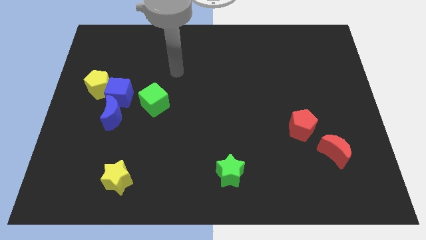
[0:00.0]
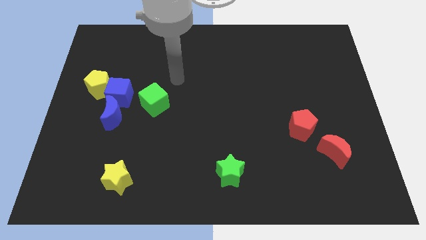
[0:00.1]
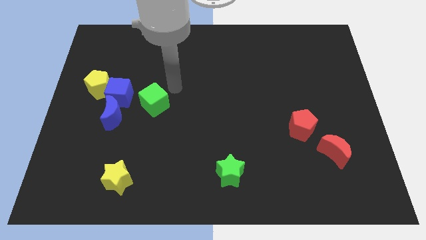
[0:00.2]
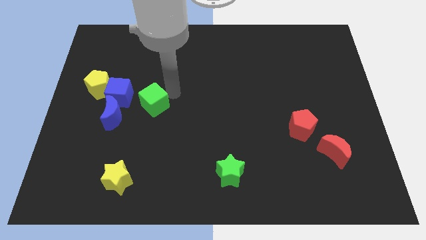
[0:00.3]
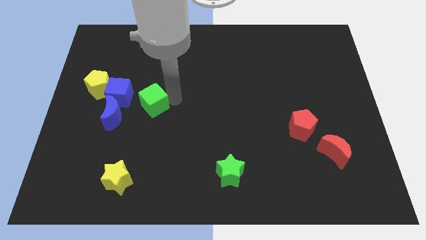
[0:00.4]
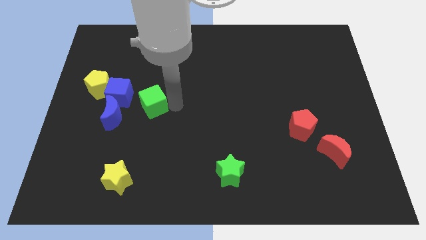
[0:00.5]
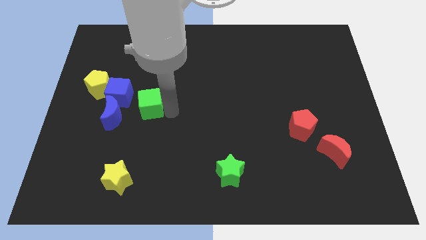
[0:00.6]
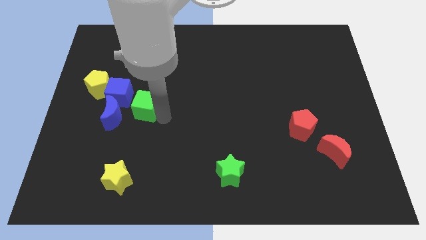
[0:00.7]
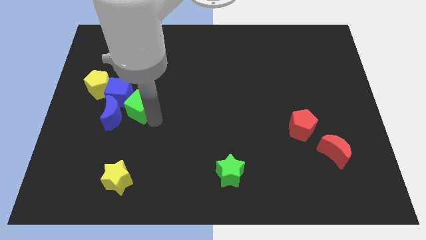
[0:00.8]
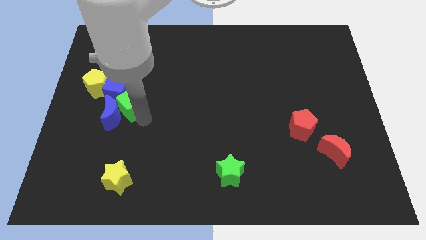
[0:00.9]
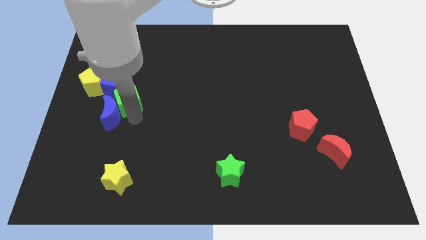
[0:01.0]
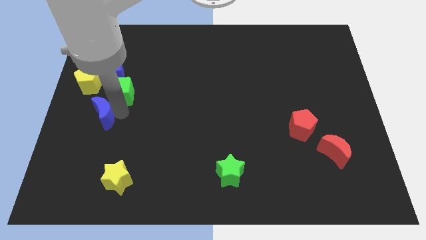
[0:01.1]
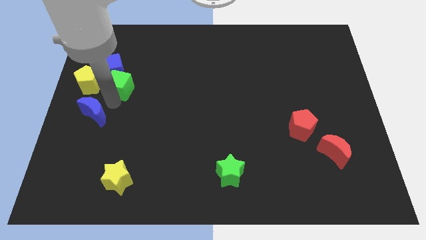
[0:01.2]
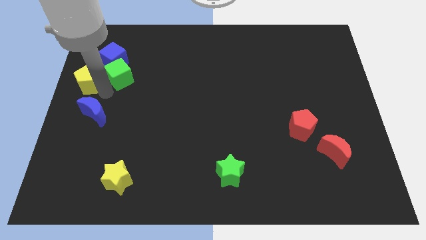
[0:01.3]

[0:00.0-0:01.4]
move the blue cube away from the clump

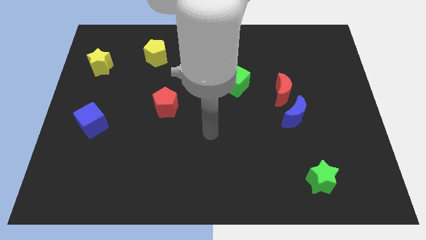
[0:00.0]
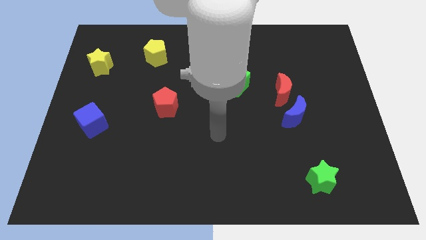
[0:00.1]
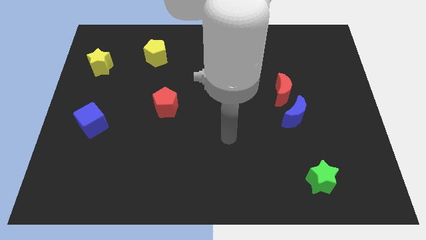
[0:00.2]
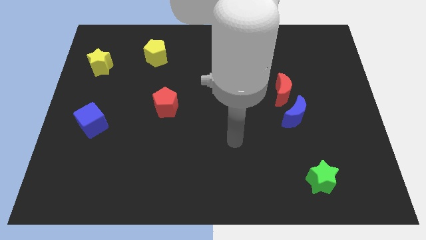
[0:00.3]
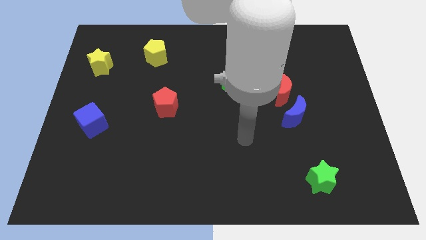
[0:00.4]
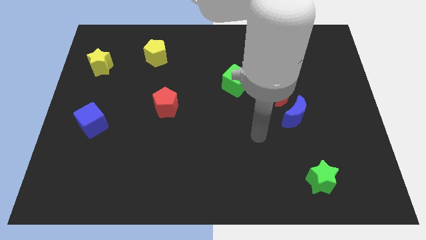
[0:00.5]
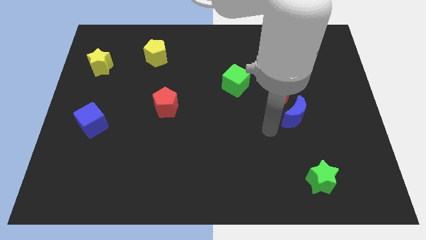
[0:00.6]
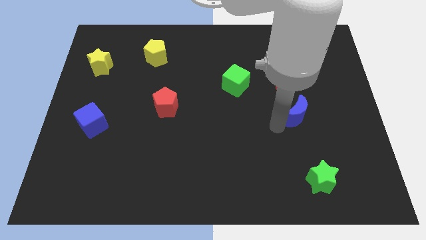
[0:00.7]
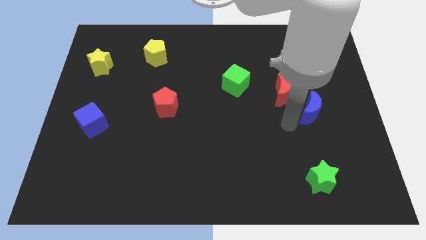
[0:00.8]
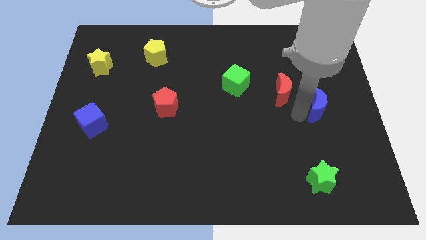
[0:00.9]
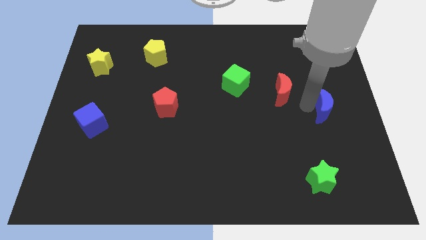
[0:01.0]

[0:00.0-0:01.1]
separate the red moon from the blue moon

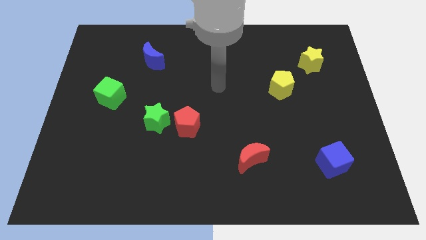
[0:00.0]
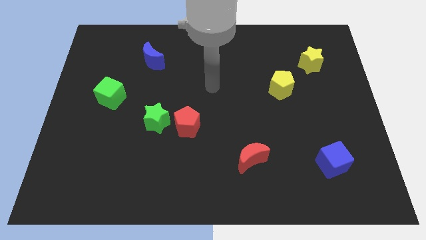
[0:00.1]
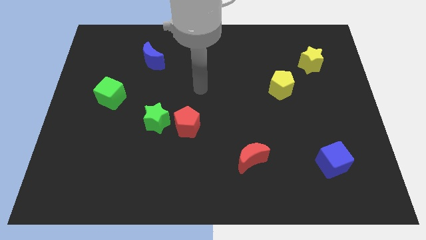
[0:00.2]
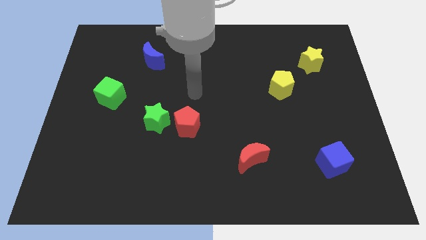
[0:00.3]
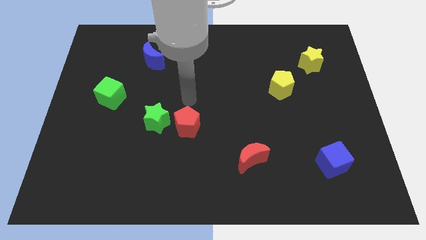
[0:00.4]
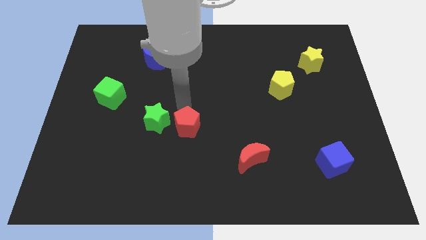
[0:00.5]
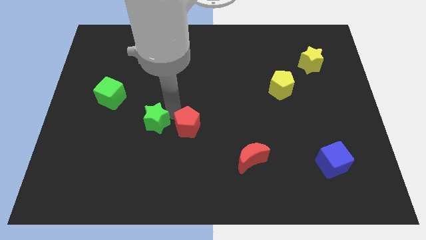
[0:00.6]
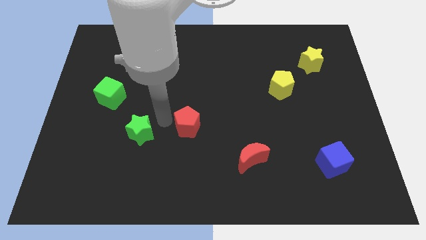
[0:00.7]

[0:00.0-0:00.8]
separate the red pentagon from the green star

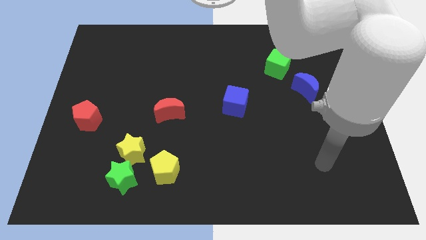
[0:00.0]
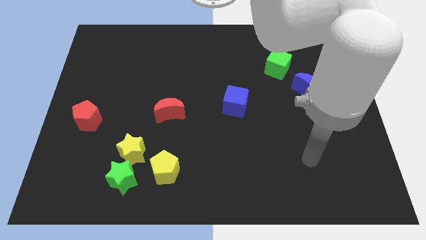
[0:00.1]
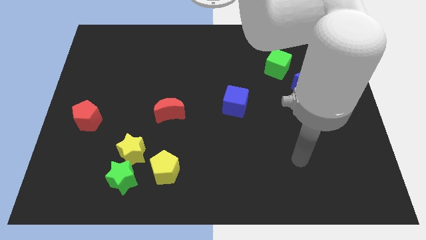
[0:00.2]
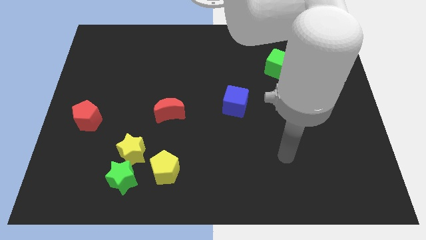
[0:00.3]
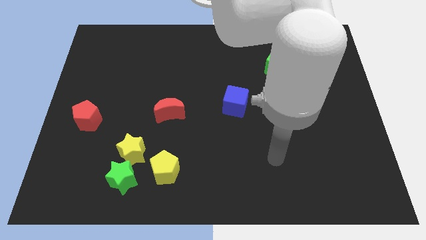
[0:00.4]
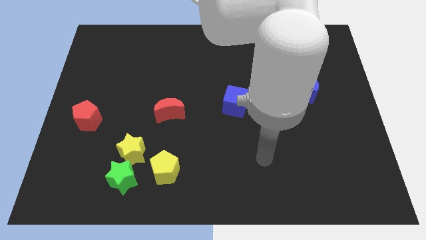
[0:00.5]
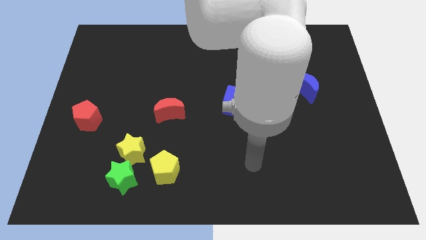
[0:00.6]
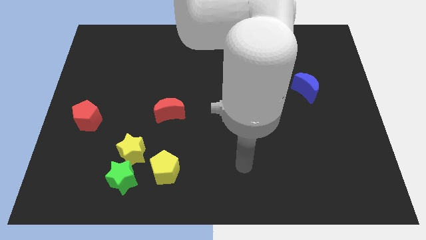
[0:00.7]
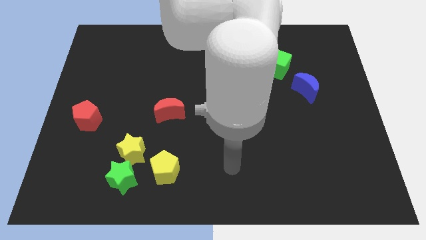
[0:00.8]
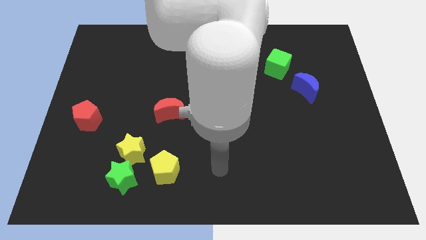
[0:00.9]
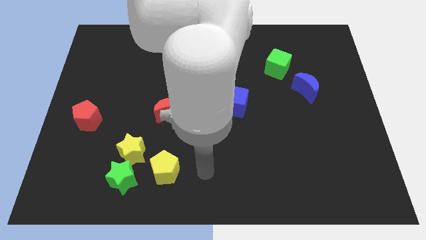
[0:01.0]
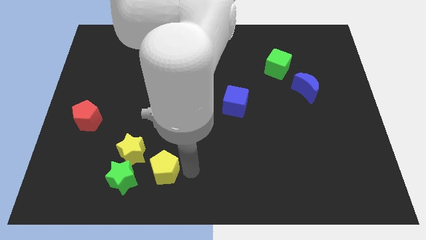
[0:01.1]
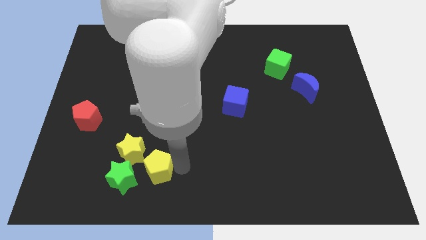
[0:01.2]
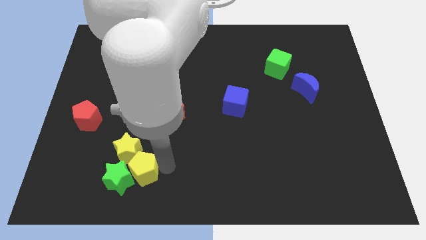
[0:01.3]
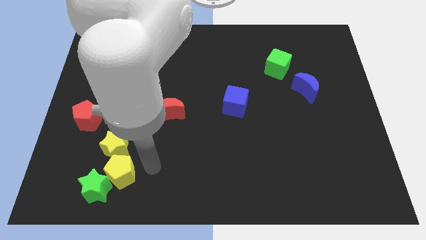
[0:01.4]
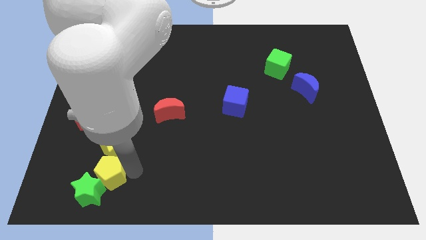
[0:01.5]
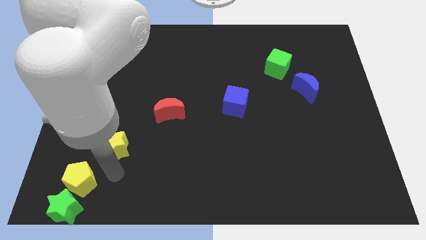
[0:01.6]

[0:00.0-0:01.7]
move the yellow star away from the green star and yellow pentagon

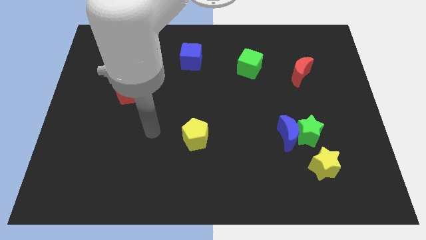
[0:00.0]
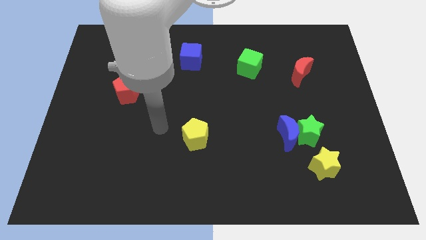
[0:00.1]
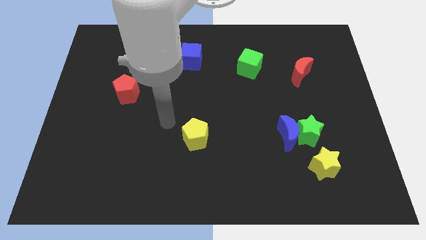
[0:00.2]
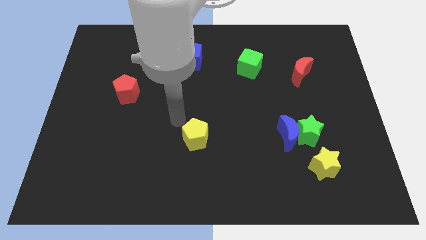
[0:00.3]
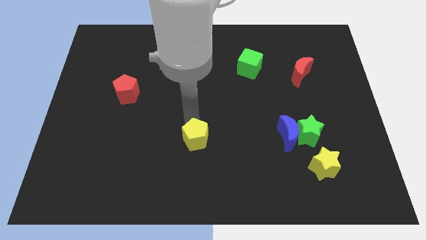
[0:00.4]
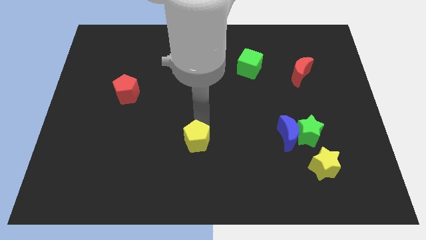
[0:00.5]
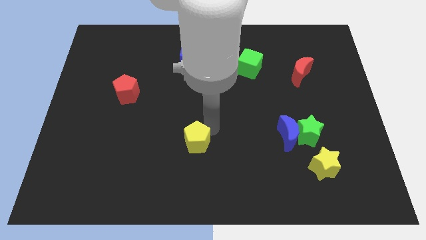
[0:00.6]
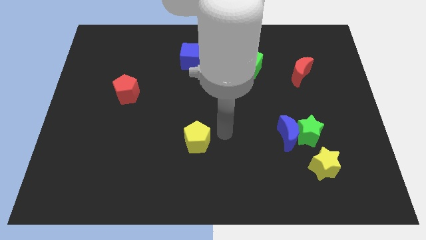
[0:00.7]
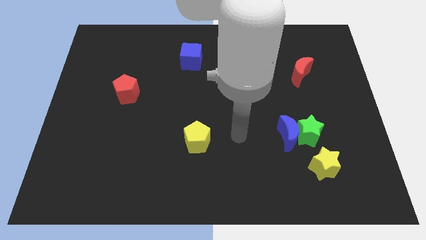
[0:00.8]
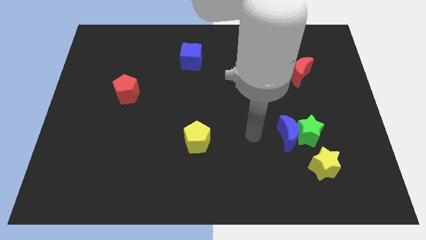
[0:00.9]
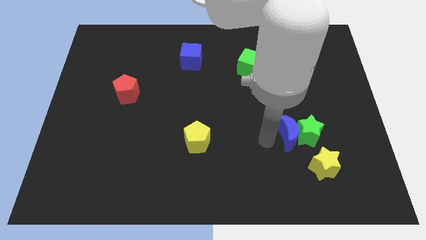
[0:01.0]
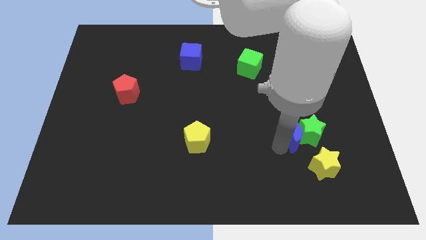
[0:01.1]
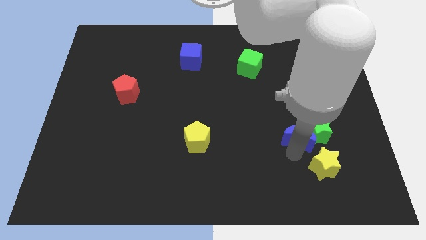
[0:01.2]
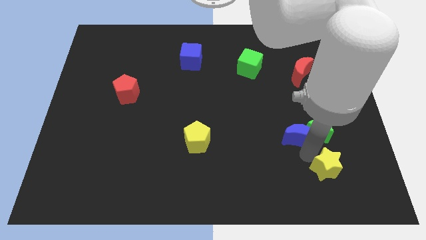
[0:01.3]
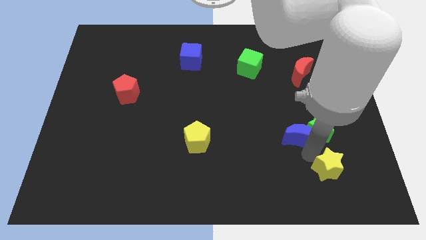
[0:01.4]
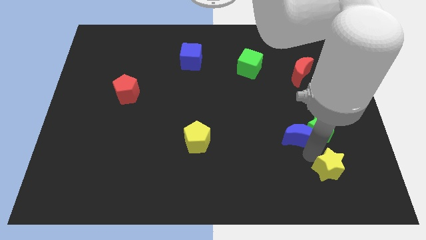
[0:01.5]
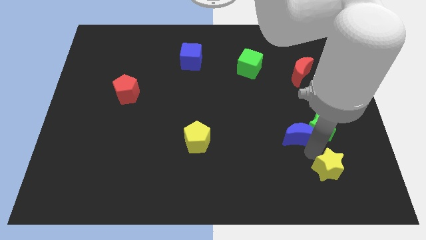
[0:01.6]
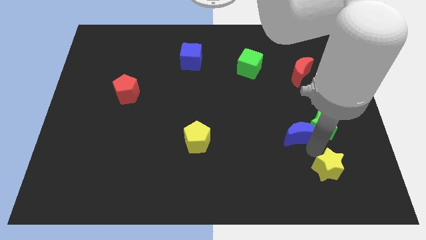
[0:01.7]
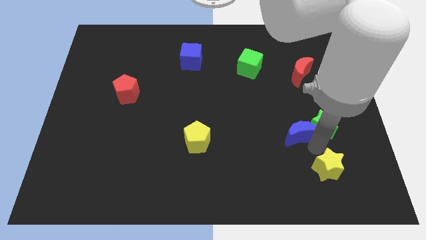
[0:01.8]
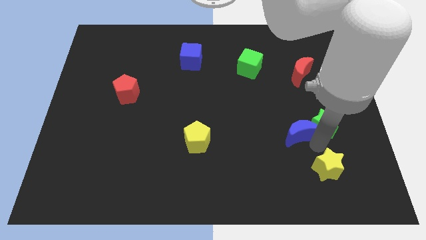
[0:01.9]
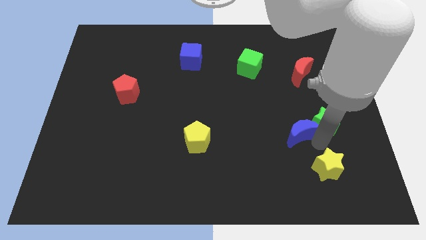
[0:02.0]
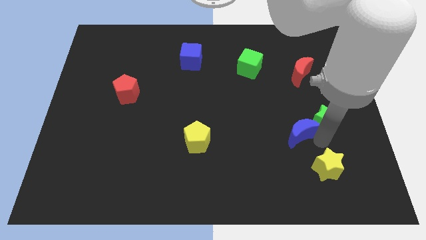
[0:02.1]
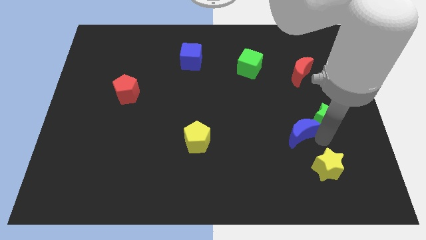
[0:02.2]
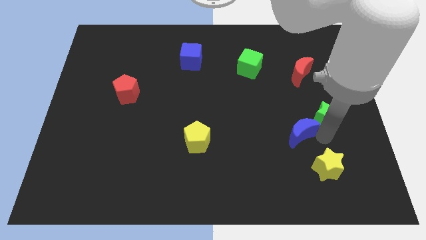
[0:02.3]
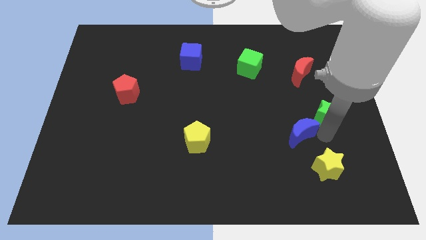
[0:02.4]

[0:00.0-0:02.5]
pull the green star apart from the blue moon and yellow star

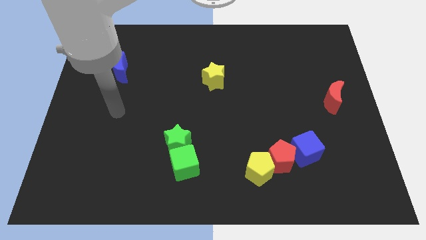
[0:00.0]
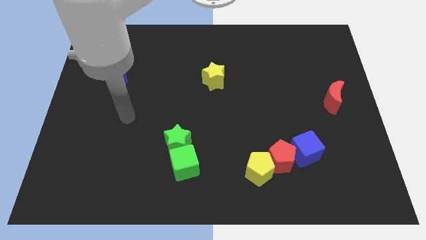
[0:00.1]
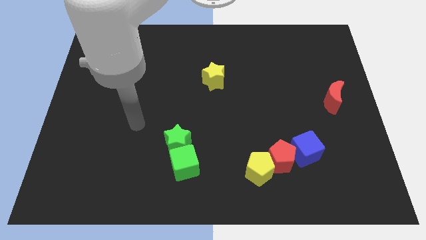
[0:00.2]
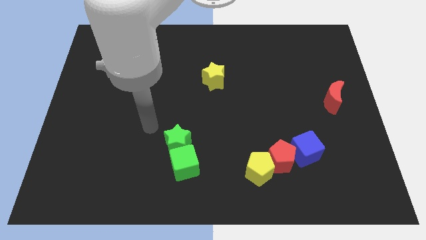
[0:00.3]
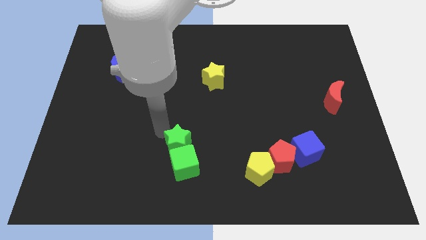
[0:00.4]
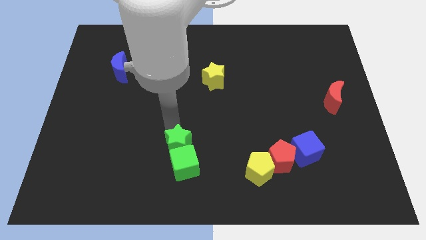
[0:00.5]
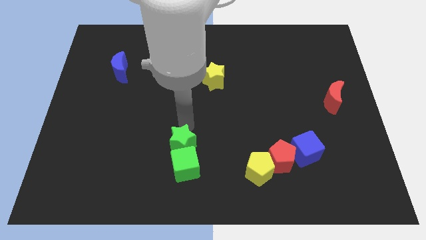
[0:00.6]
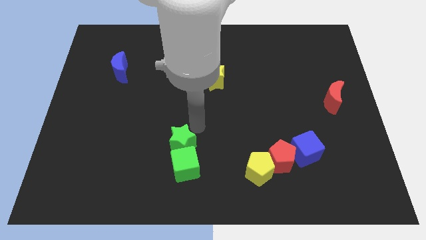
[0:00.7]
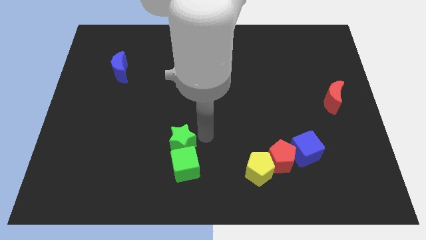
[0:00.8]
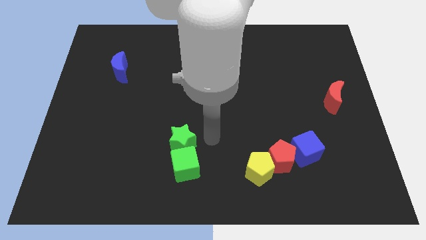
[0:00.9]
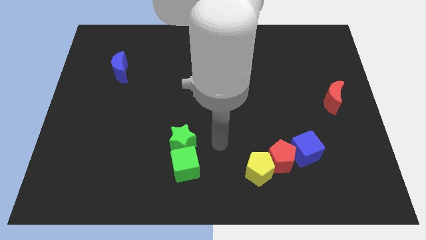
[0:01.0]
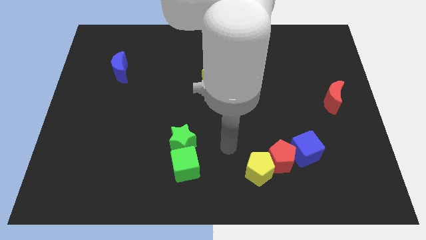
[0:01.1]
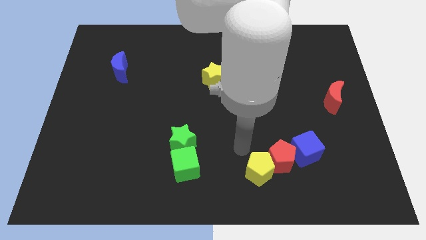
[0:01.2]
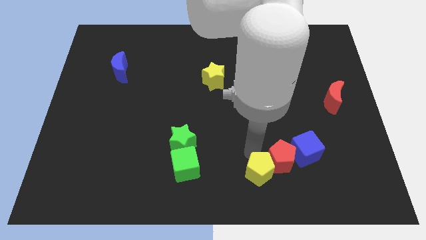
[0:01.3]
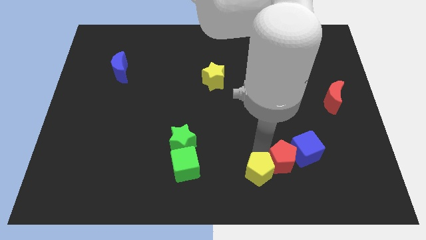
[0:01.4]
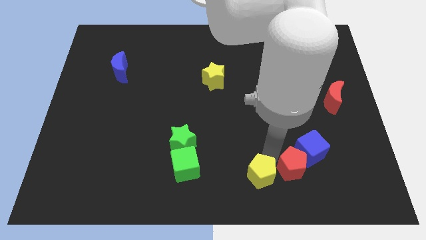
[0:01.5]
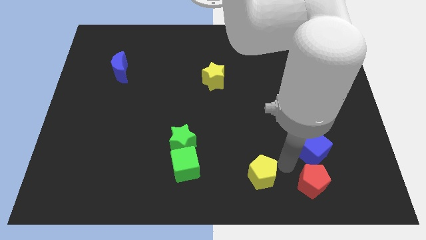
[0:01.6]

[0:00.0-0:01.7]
separate the yellow pentagon from the red pentagon

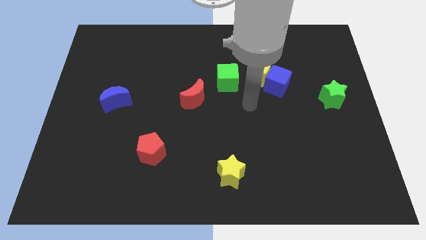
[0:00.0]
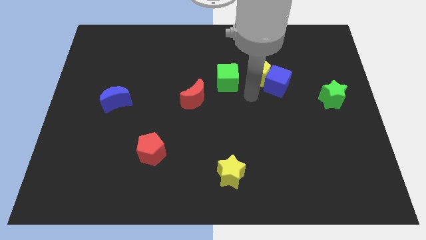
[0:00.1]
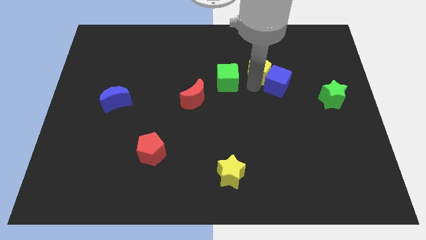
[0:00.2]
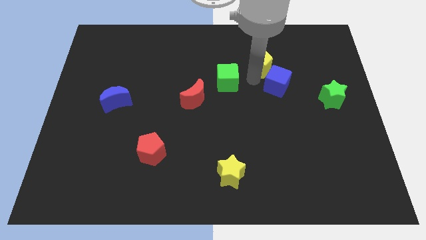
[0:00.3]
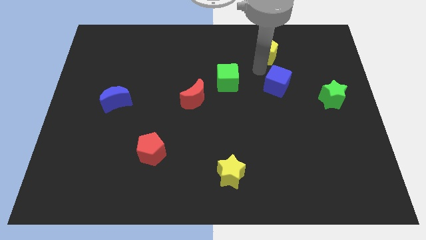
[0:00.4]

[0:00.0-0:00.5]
separate the blue cube from the yellow pentagon
